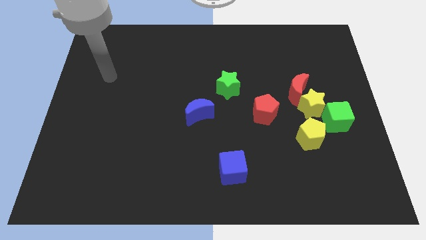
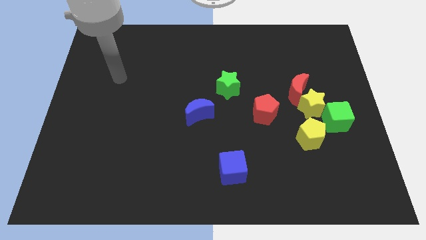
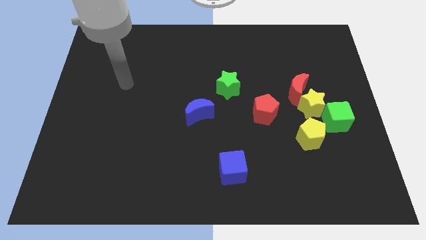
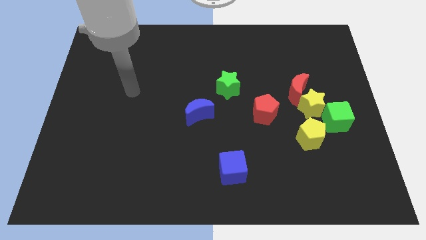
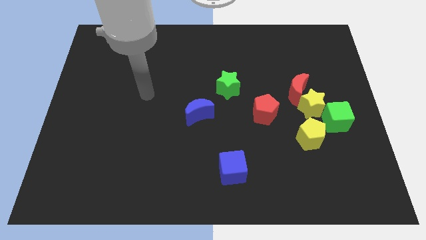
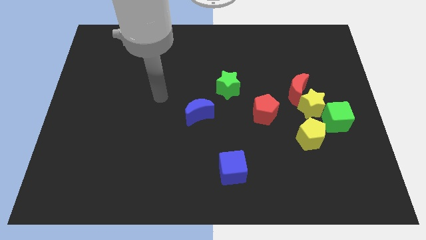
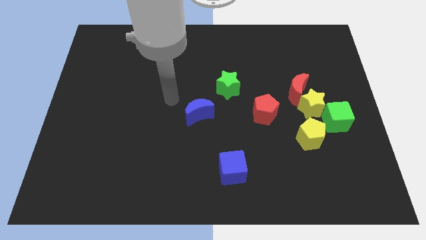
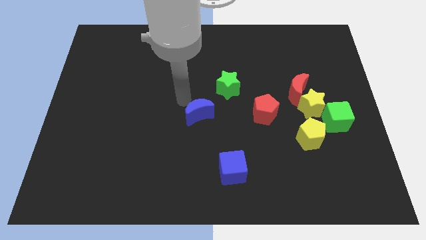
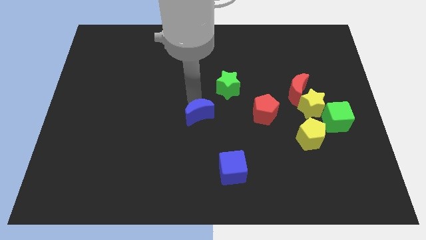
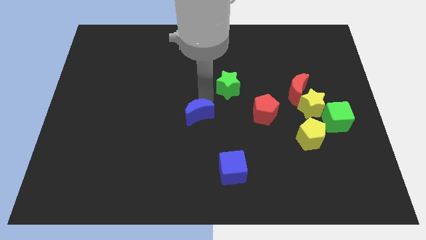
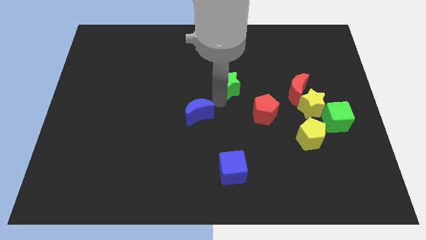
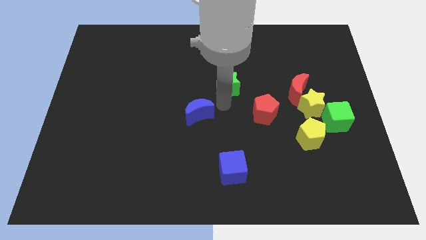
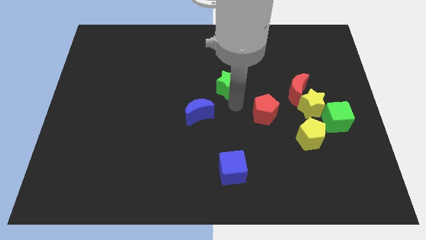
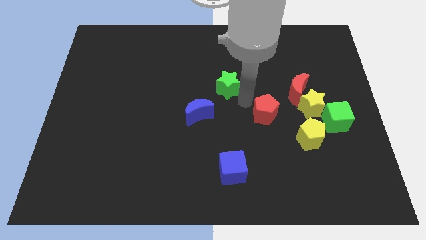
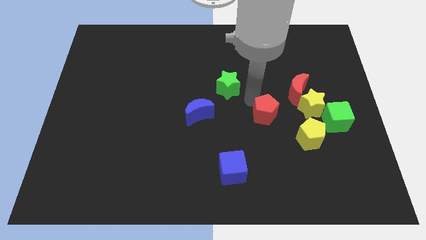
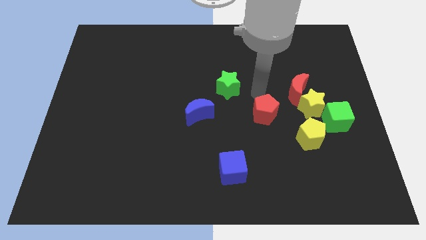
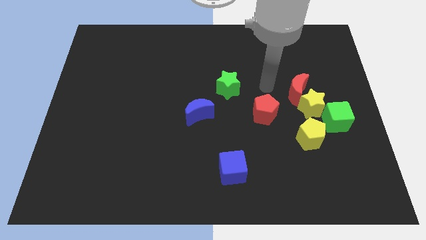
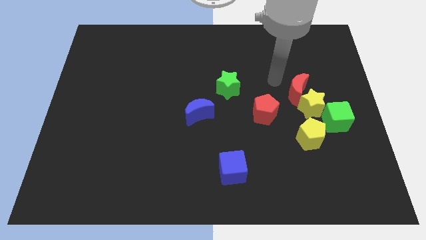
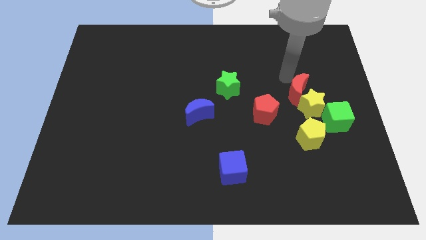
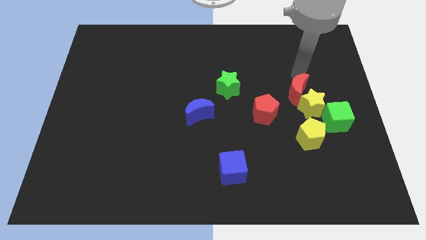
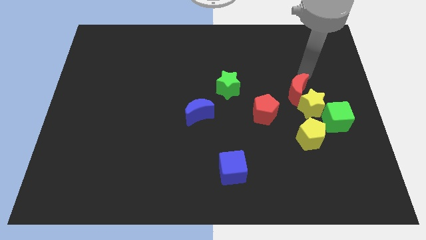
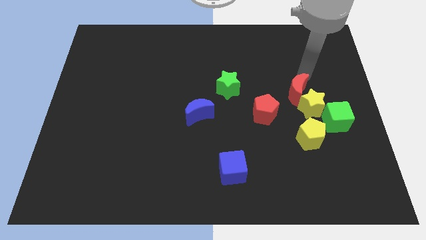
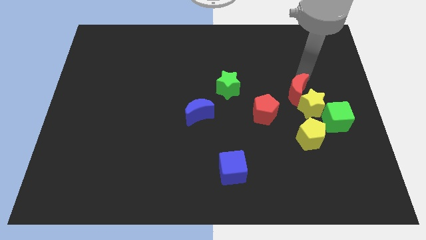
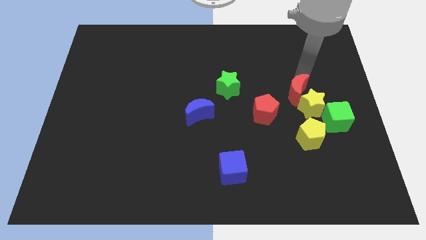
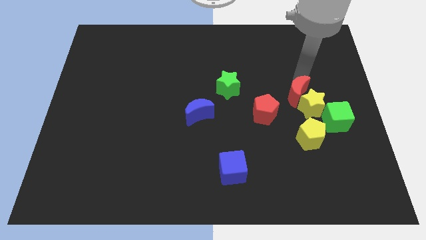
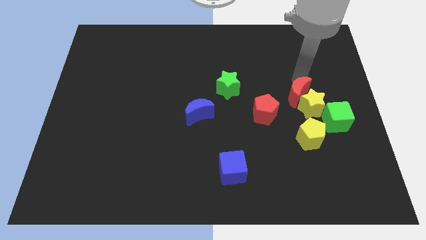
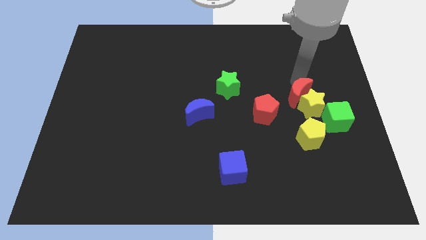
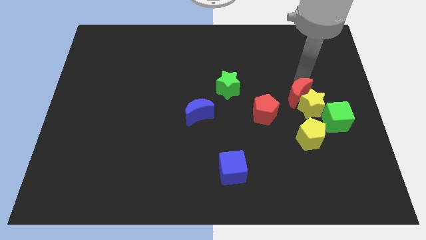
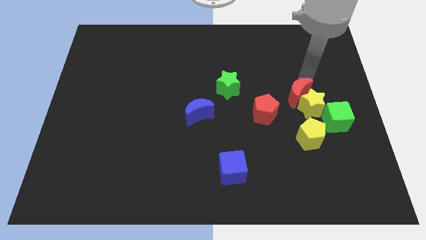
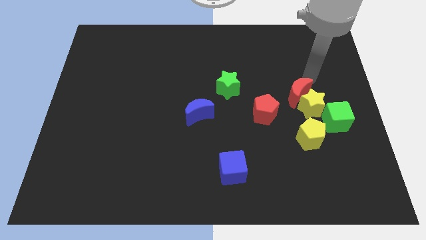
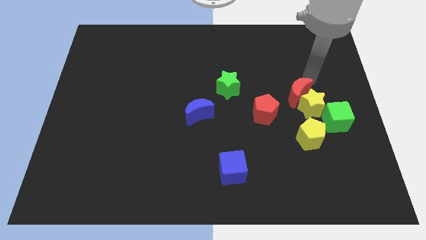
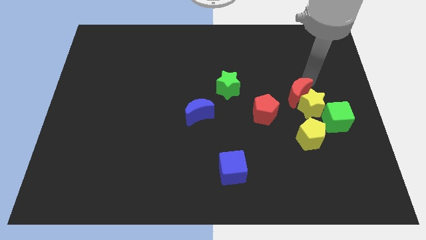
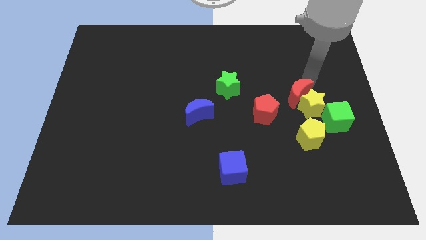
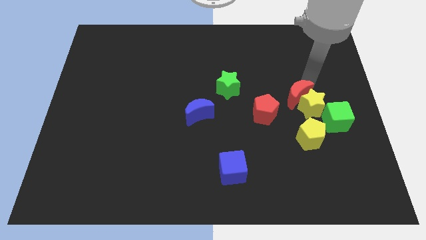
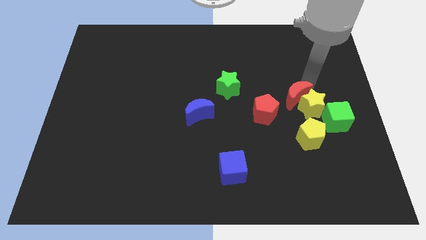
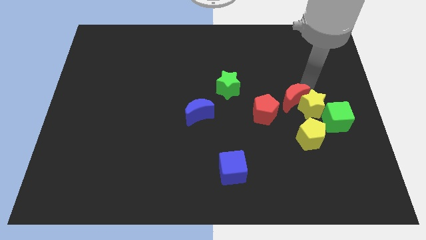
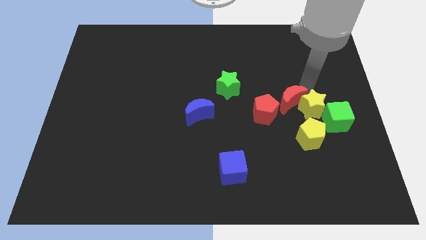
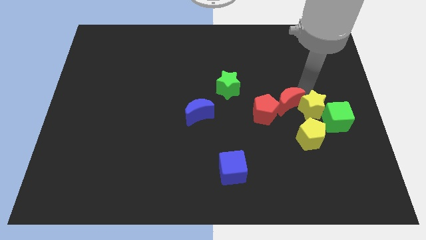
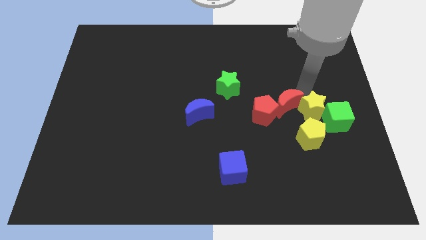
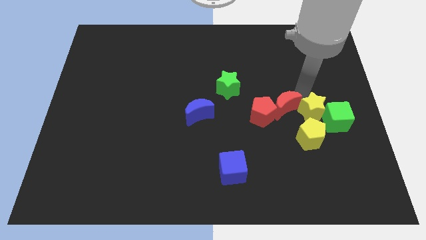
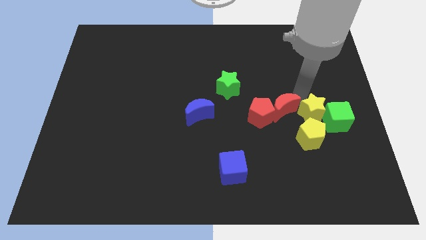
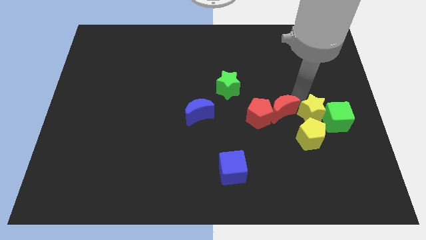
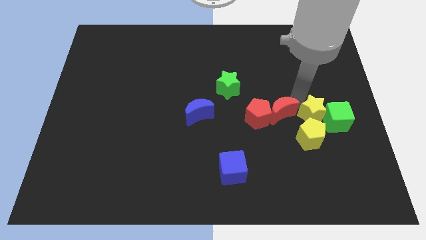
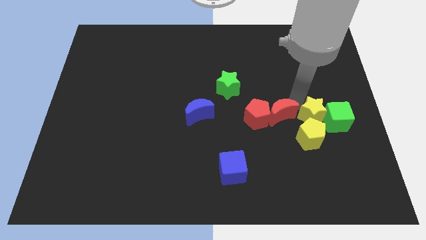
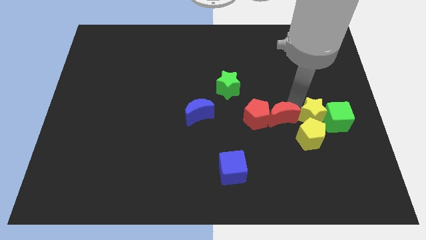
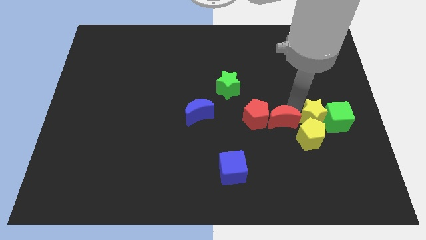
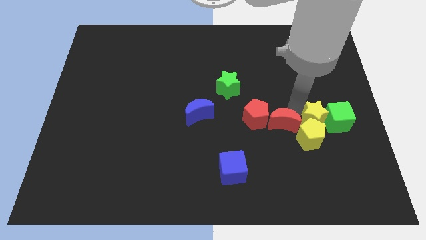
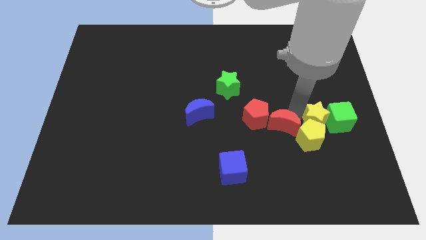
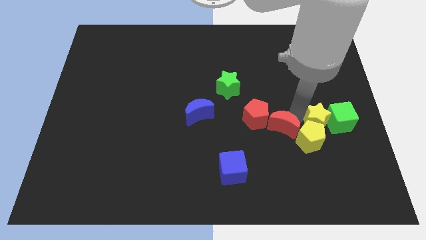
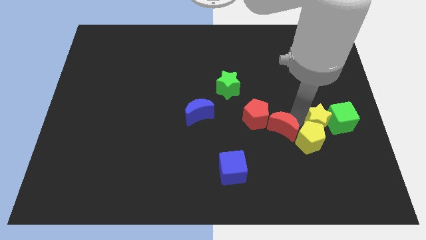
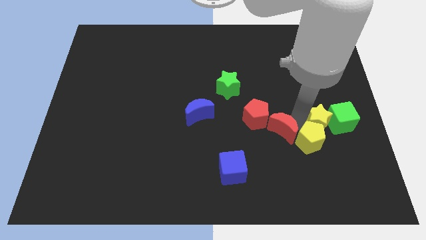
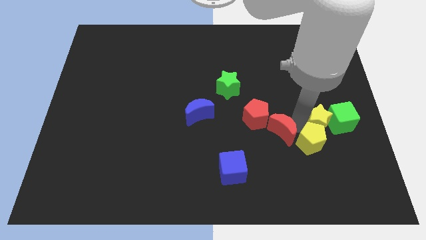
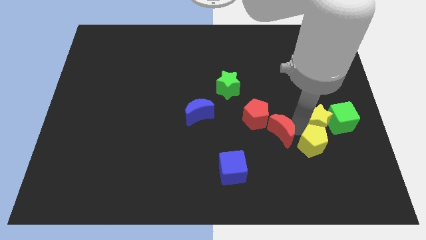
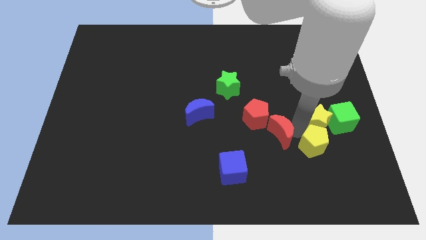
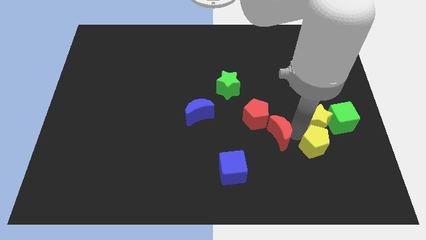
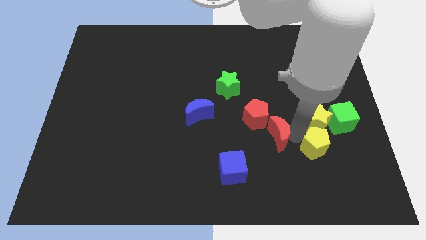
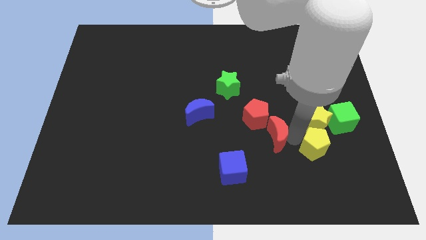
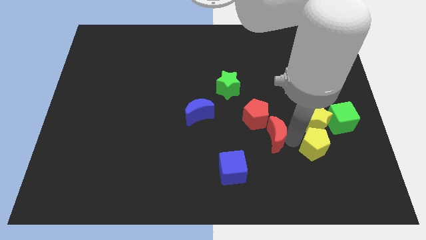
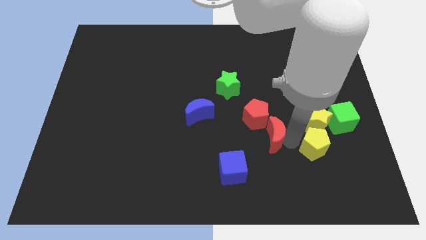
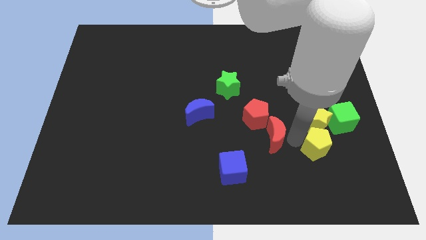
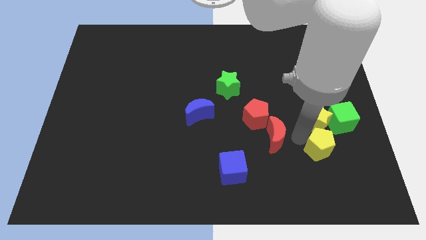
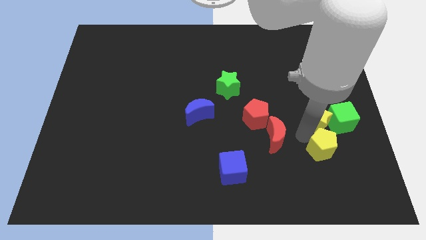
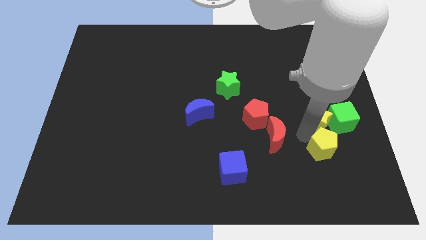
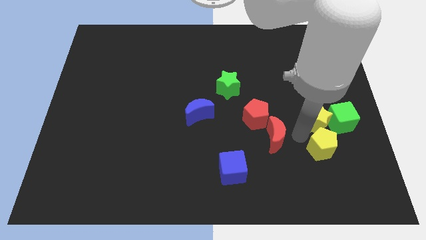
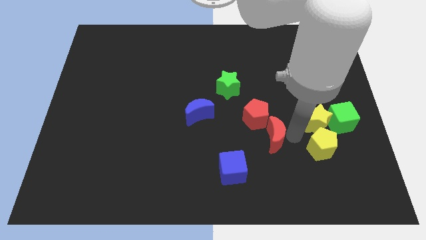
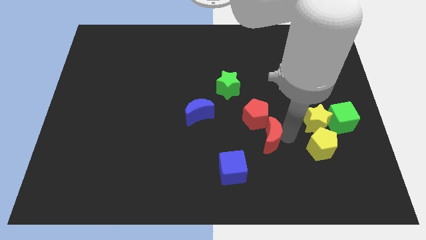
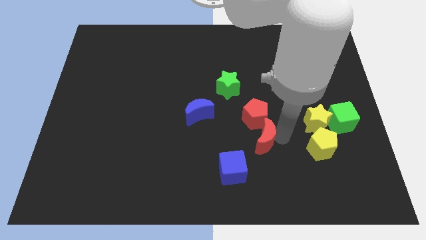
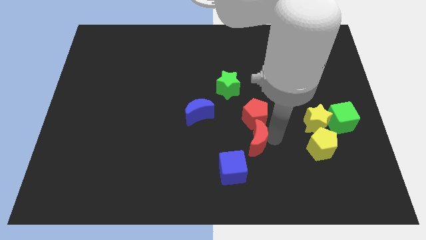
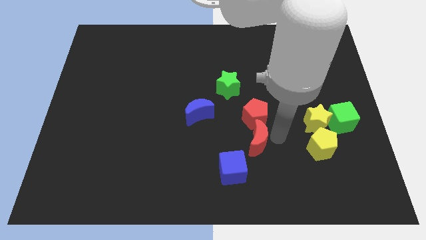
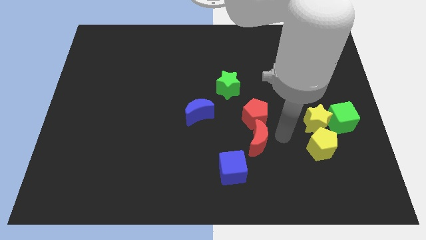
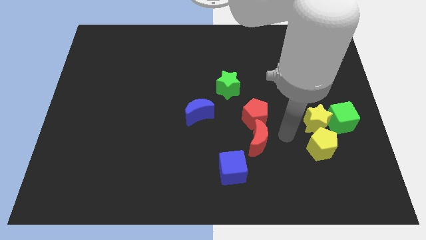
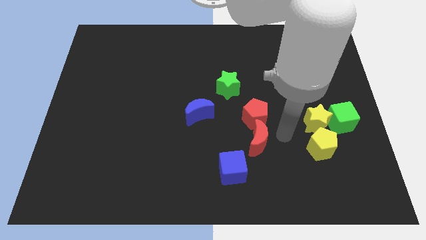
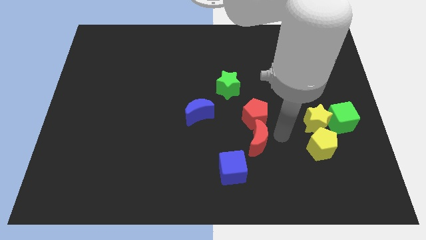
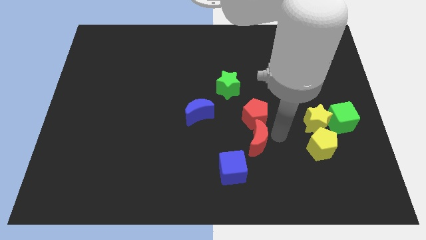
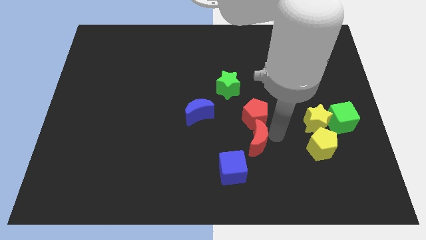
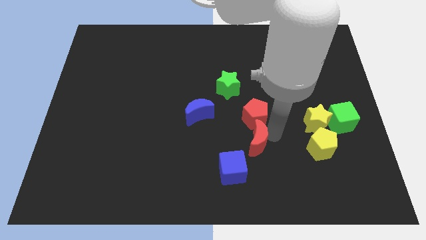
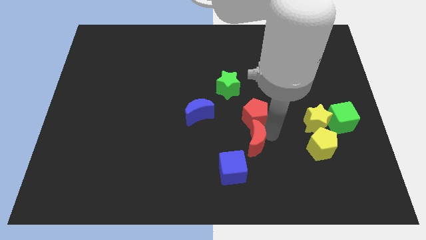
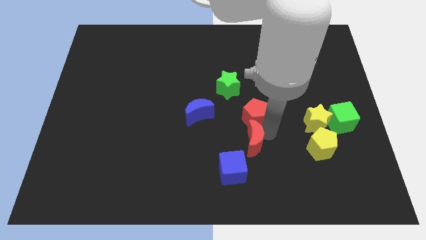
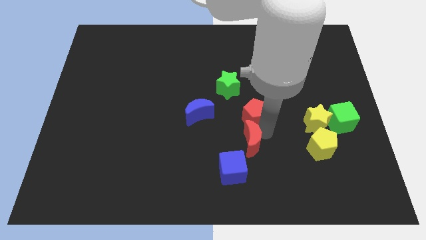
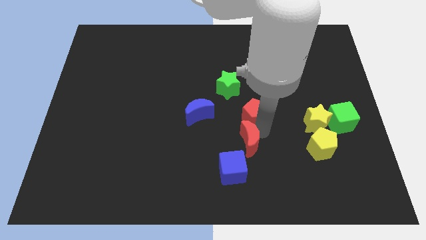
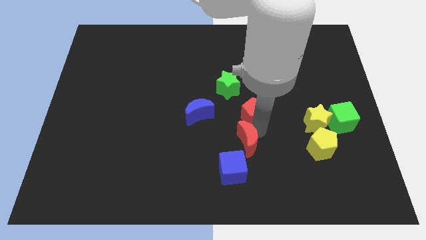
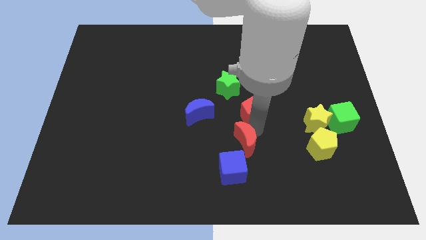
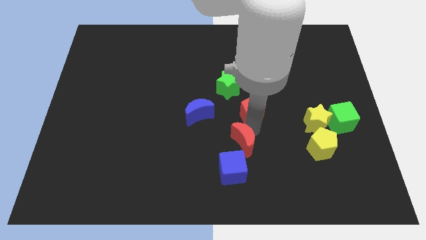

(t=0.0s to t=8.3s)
push the red moon down and then left
